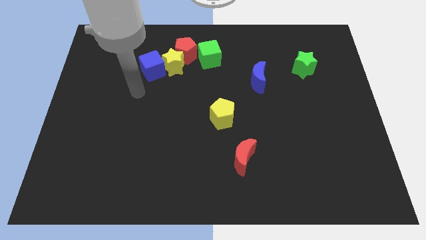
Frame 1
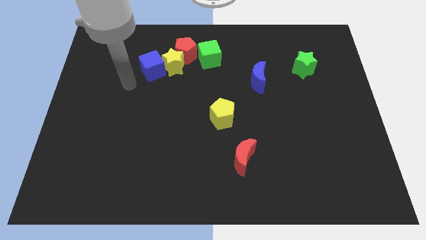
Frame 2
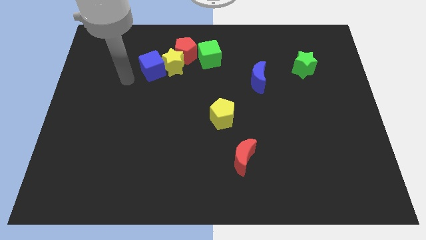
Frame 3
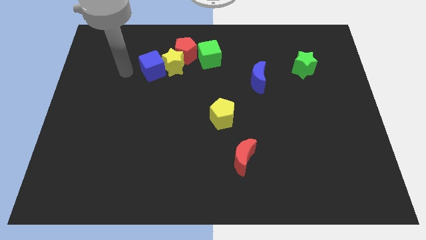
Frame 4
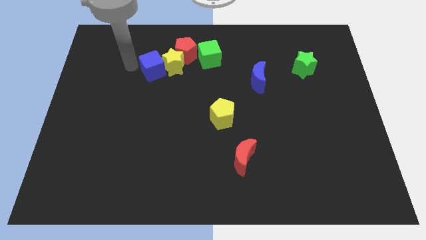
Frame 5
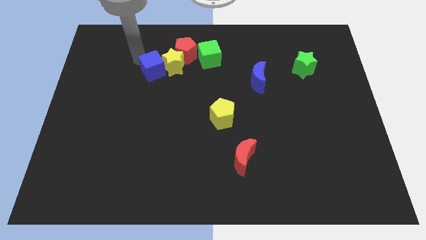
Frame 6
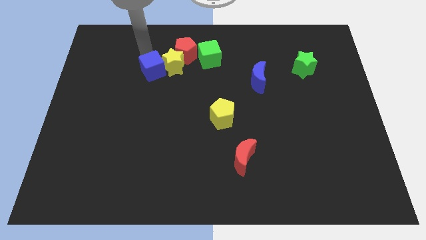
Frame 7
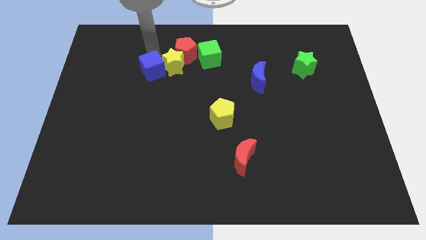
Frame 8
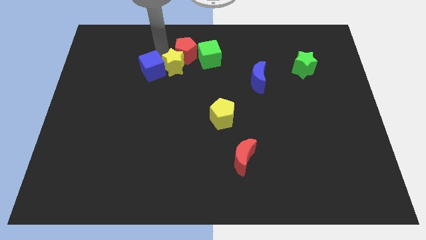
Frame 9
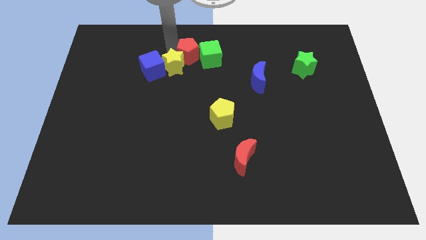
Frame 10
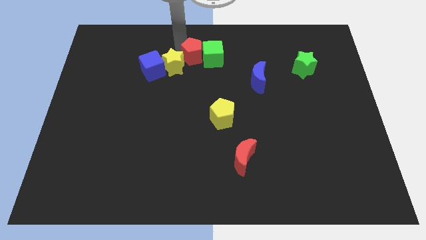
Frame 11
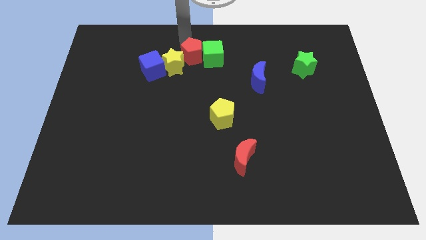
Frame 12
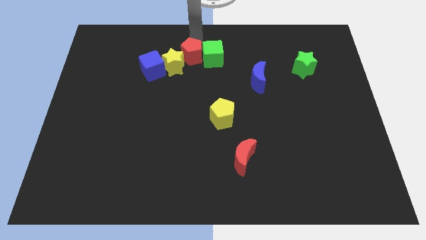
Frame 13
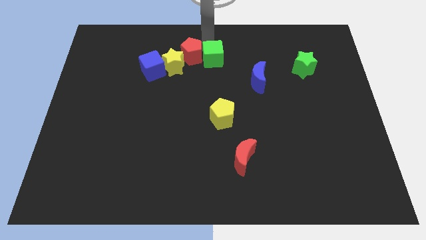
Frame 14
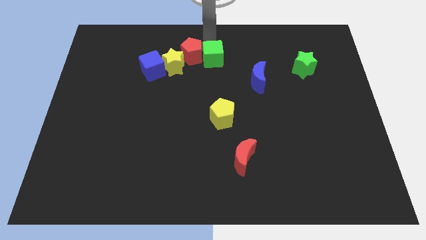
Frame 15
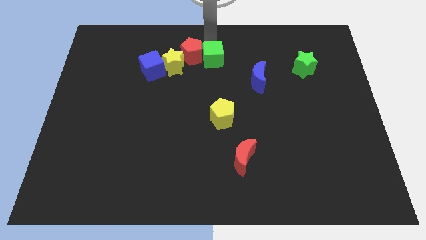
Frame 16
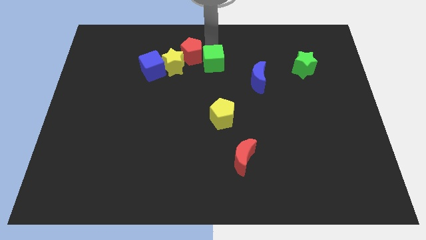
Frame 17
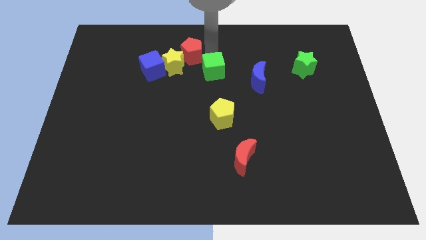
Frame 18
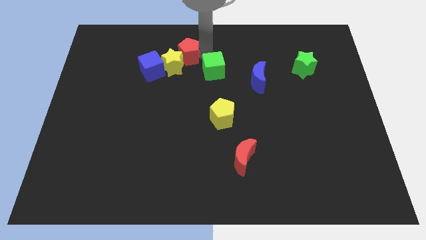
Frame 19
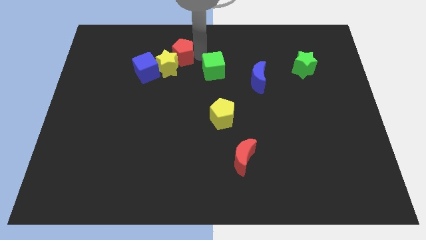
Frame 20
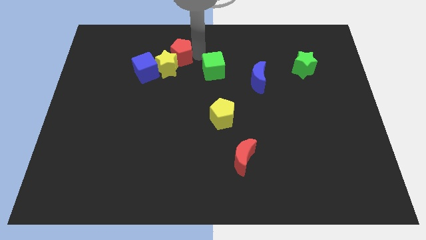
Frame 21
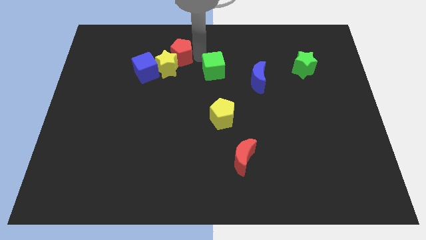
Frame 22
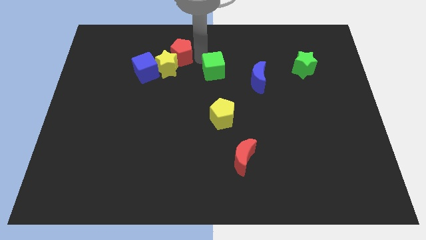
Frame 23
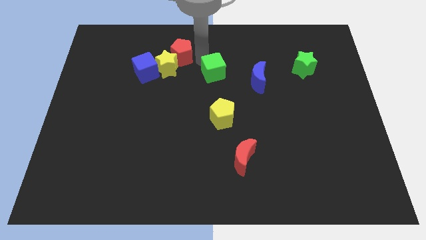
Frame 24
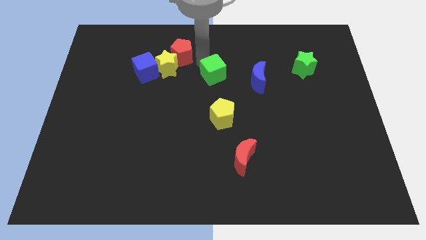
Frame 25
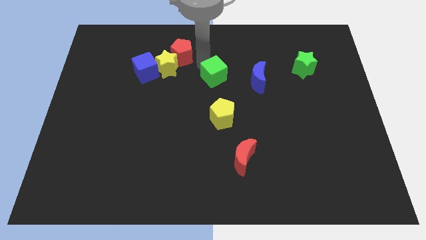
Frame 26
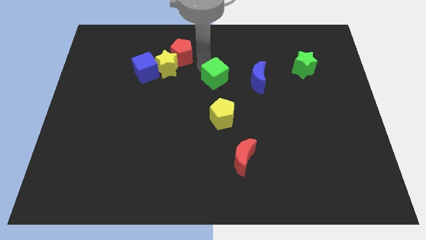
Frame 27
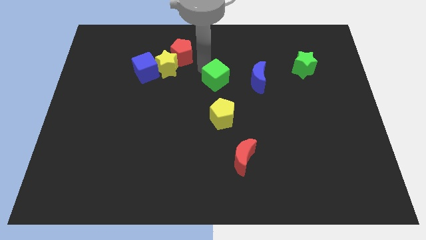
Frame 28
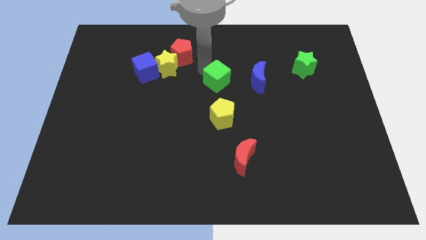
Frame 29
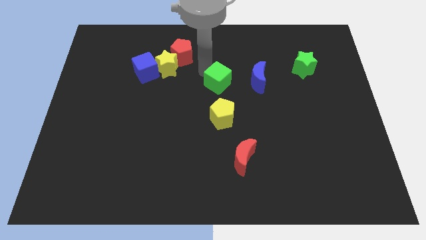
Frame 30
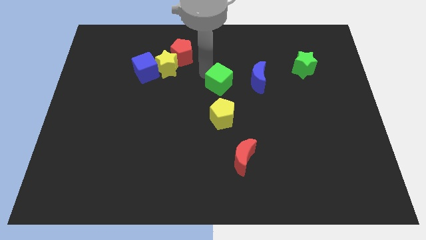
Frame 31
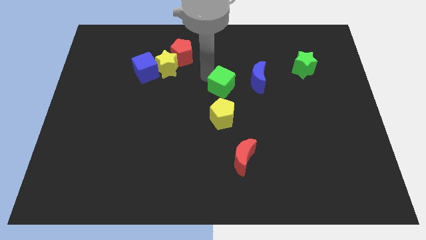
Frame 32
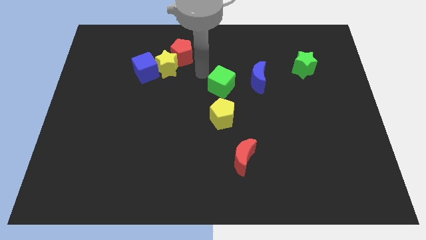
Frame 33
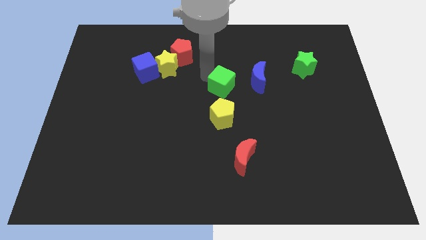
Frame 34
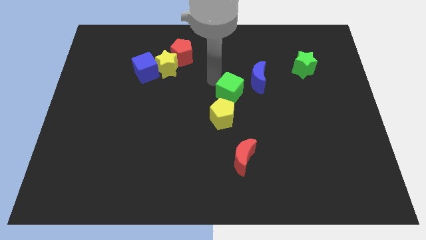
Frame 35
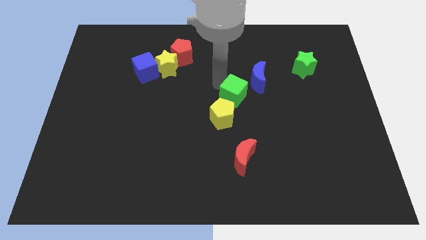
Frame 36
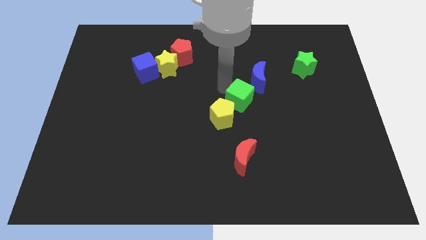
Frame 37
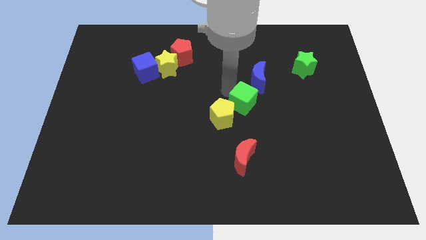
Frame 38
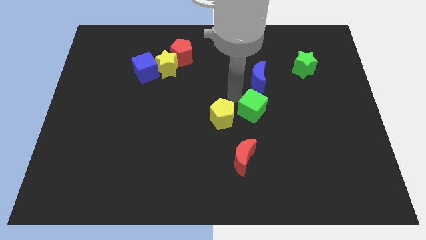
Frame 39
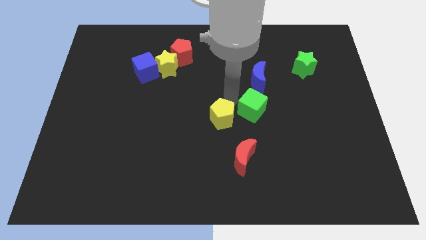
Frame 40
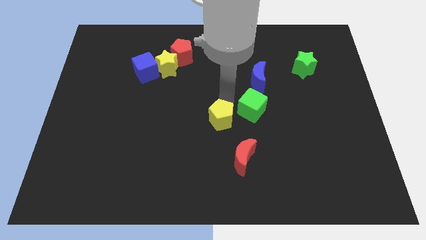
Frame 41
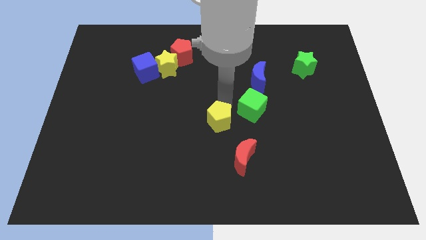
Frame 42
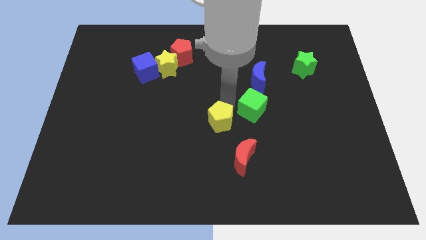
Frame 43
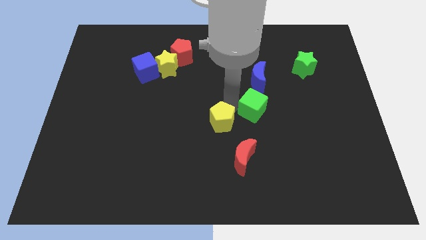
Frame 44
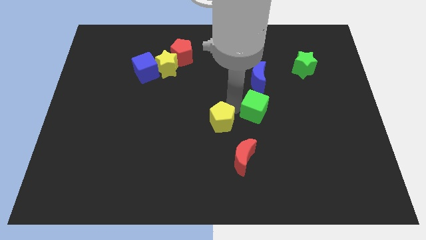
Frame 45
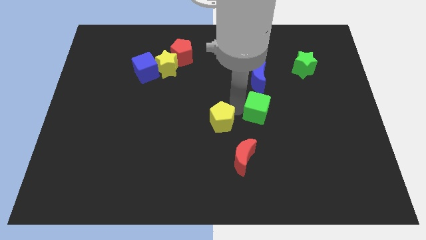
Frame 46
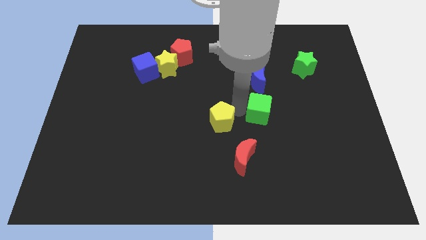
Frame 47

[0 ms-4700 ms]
slide the green cube diagonally down and to the right

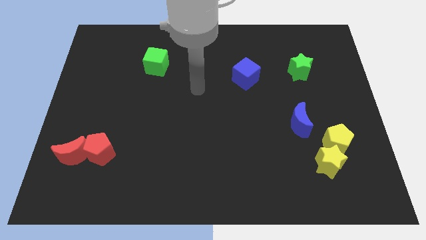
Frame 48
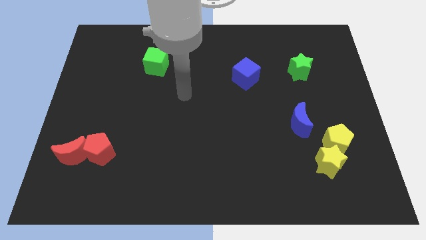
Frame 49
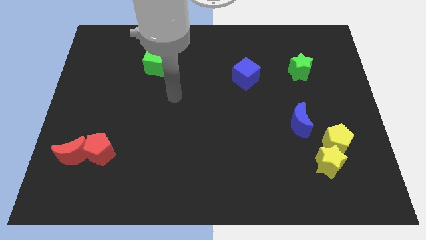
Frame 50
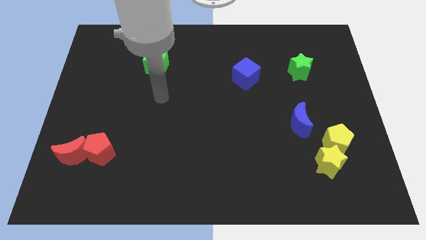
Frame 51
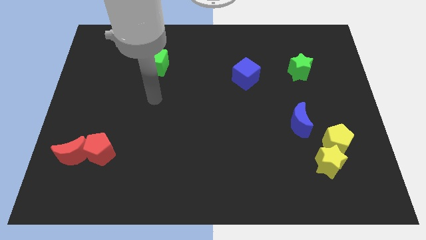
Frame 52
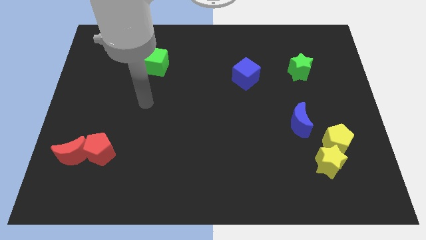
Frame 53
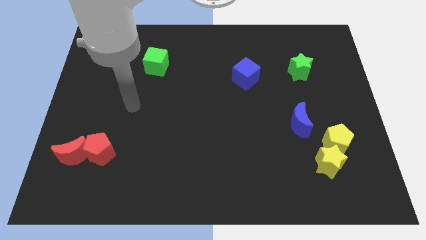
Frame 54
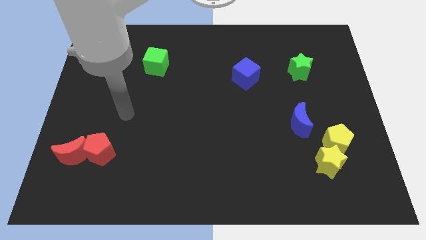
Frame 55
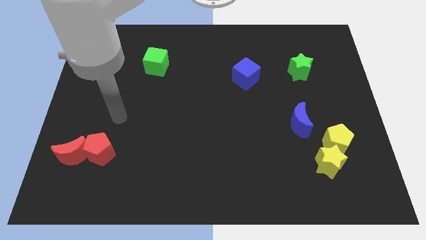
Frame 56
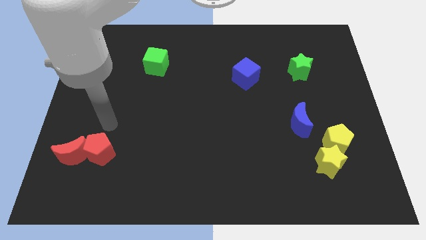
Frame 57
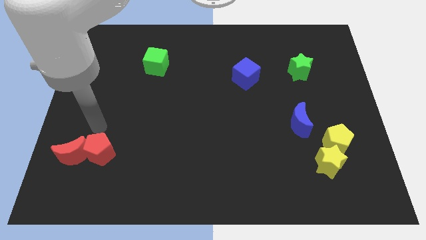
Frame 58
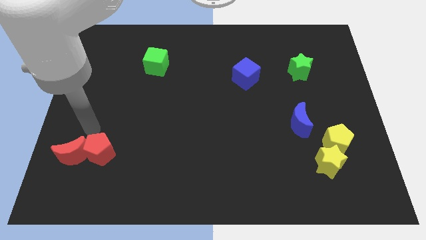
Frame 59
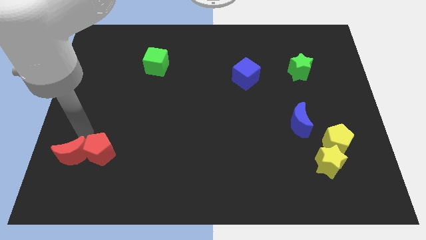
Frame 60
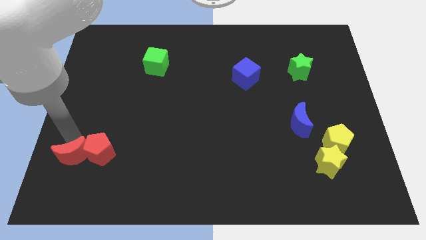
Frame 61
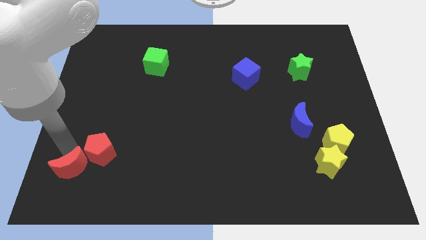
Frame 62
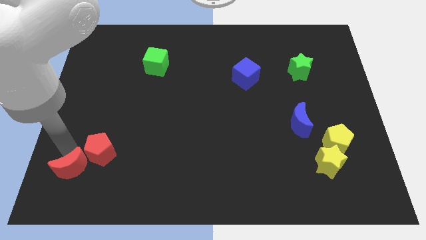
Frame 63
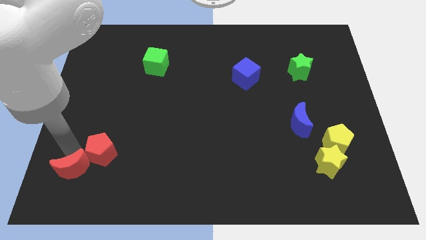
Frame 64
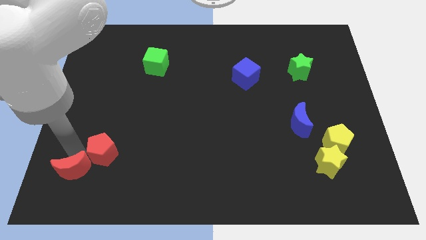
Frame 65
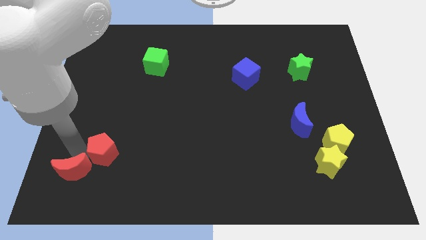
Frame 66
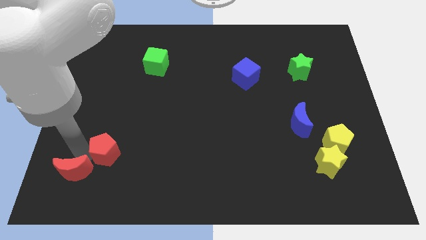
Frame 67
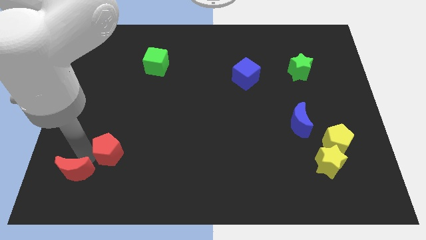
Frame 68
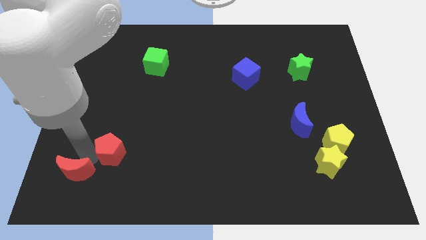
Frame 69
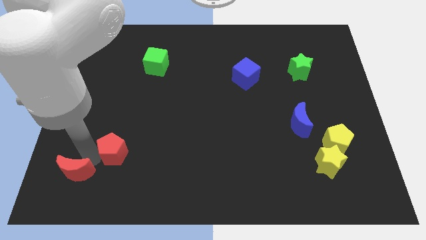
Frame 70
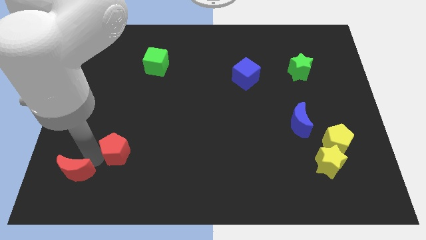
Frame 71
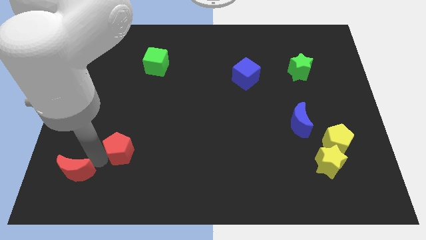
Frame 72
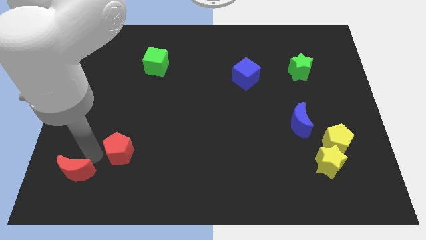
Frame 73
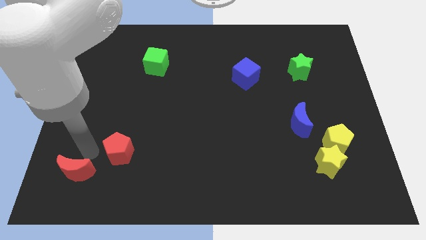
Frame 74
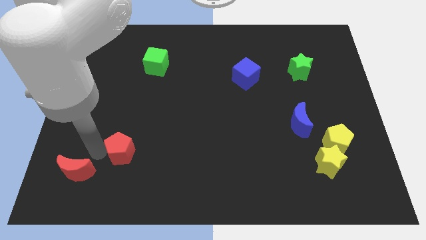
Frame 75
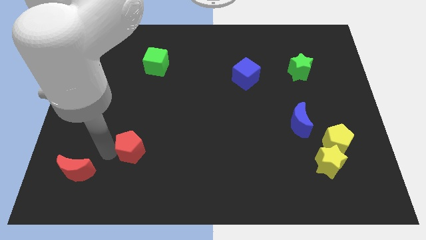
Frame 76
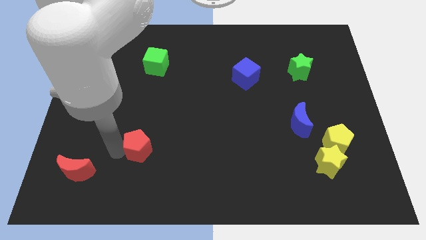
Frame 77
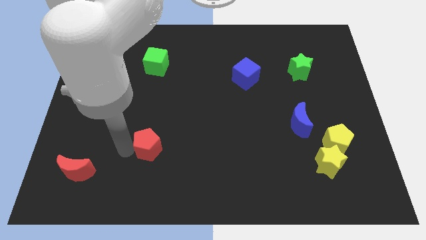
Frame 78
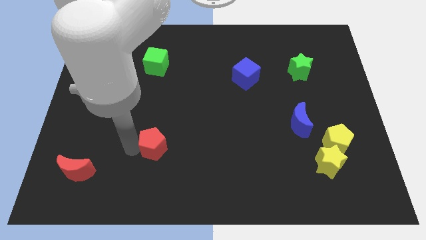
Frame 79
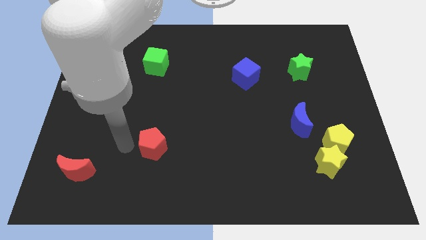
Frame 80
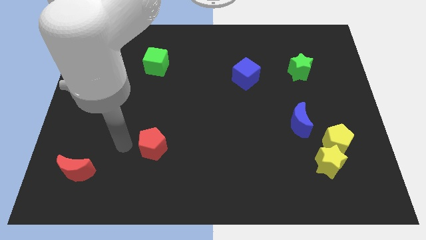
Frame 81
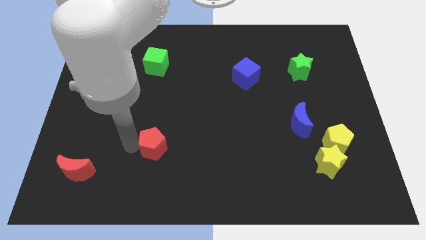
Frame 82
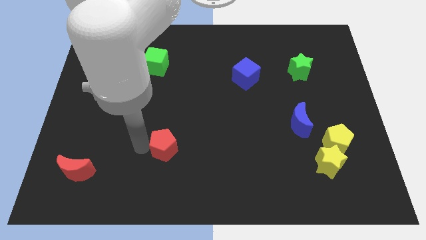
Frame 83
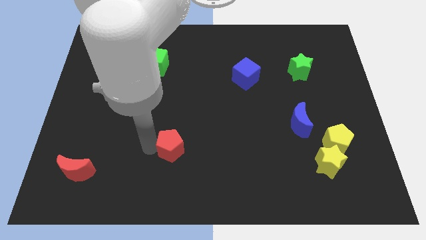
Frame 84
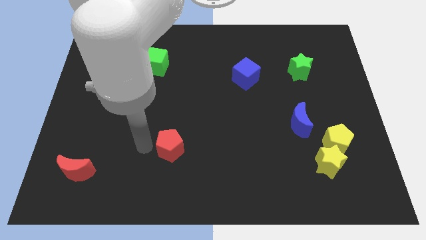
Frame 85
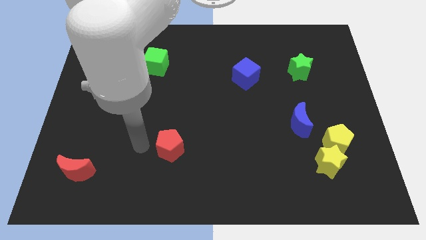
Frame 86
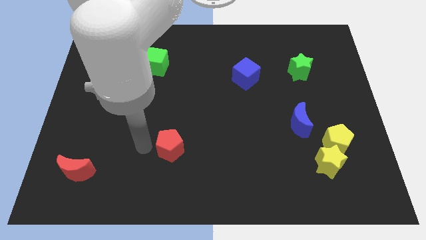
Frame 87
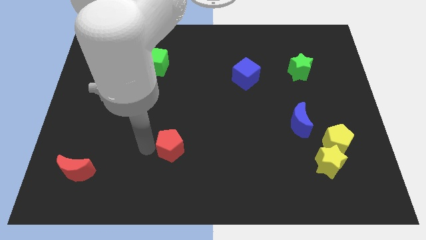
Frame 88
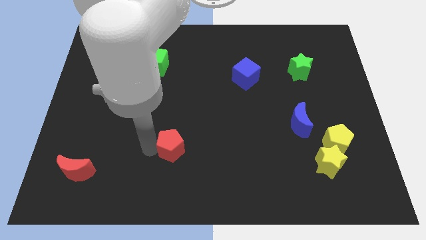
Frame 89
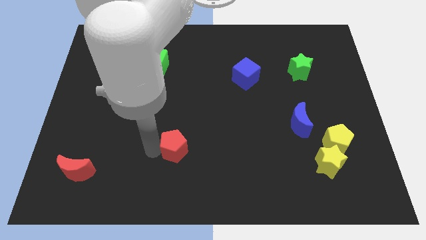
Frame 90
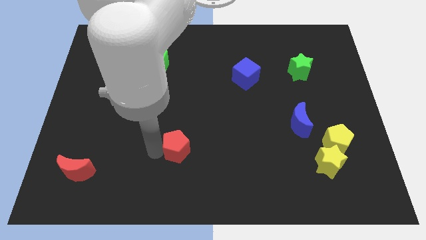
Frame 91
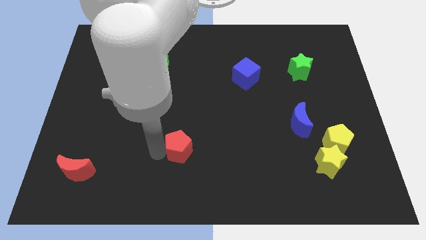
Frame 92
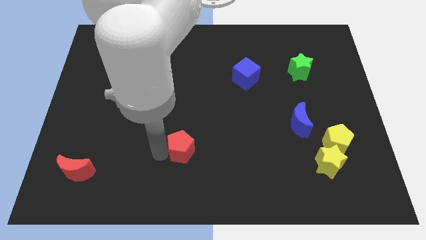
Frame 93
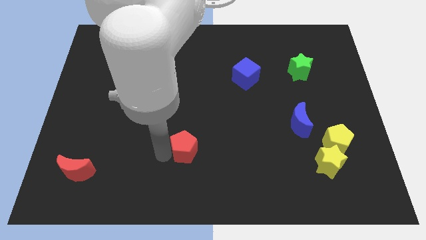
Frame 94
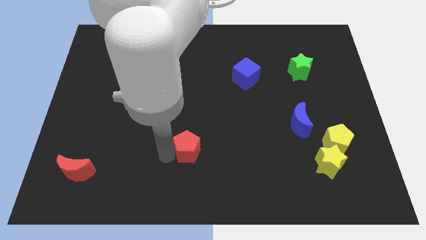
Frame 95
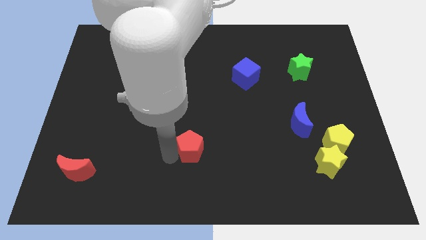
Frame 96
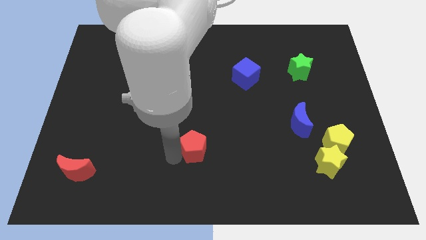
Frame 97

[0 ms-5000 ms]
move the red pentagon right
